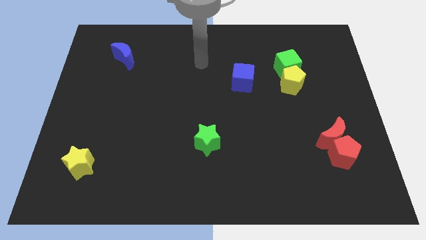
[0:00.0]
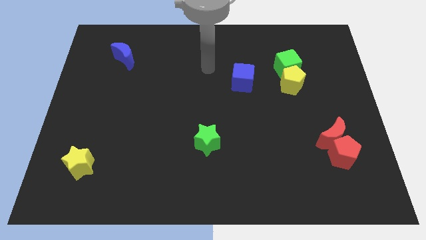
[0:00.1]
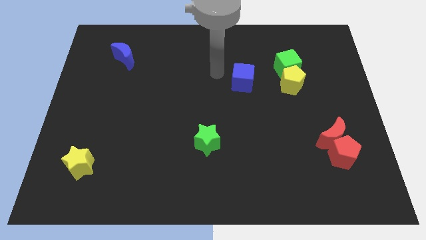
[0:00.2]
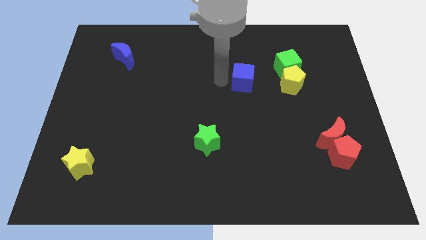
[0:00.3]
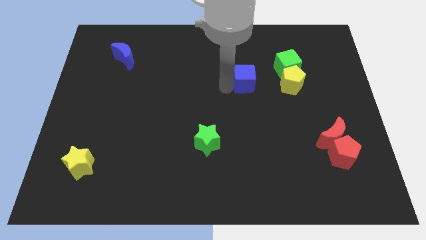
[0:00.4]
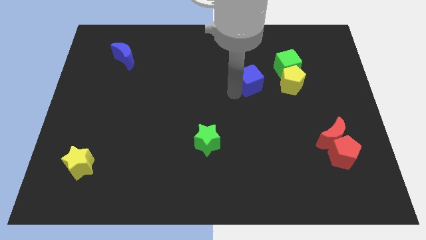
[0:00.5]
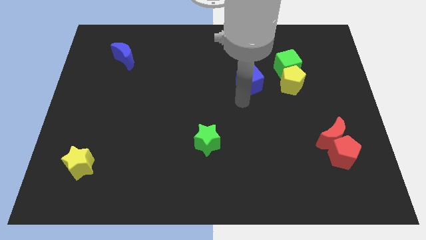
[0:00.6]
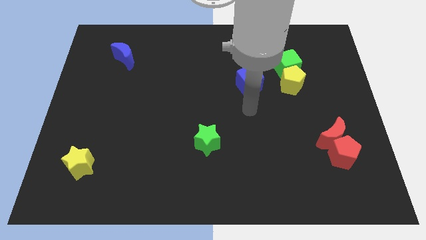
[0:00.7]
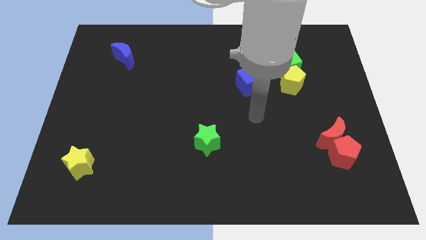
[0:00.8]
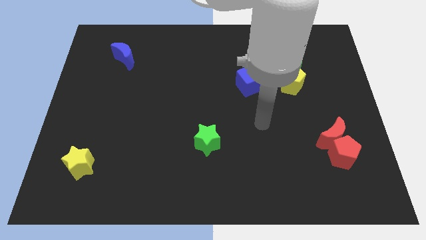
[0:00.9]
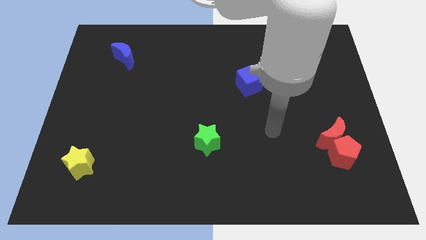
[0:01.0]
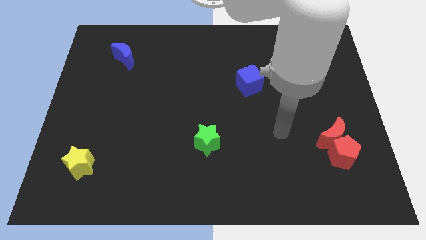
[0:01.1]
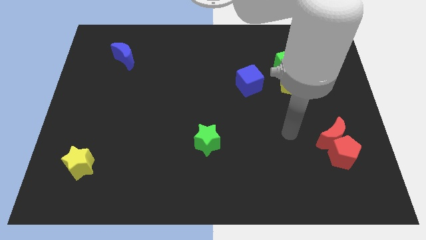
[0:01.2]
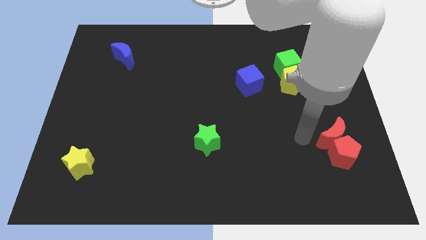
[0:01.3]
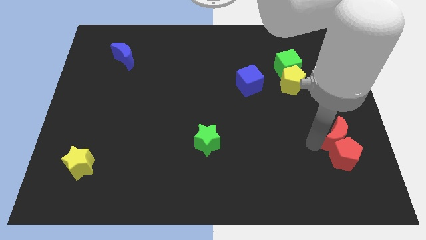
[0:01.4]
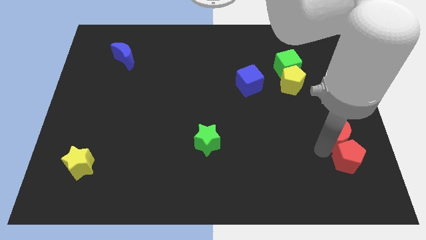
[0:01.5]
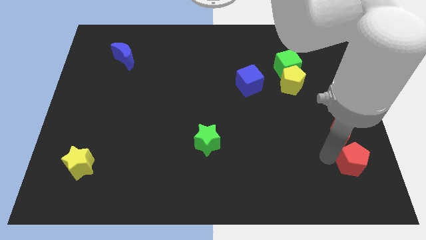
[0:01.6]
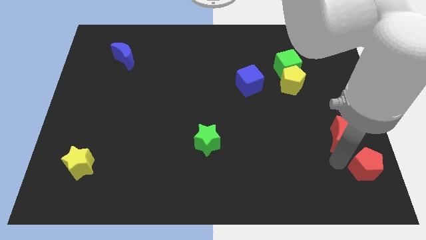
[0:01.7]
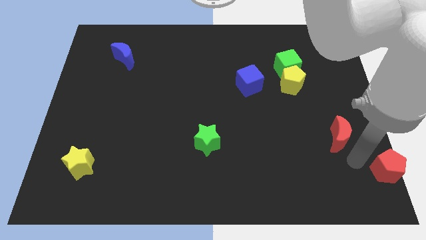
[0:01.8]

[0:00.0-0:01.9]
move the red moon away from the red pentagon

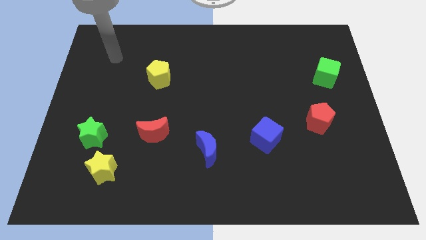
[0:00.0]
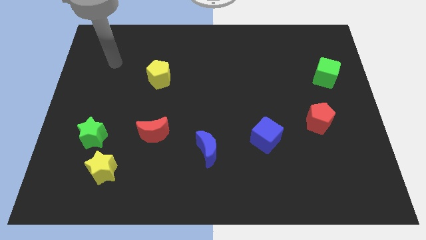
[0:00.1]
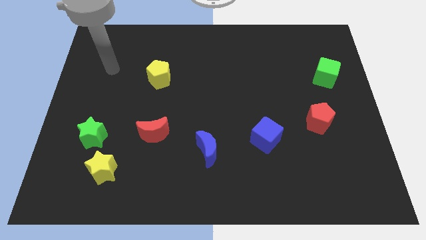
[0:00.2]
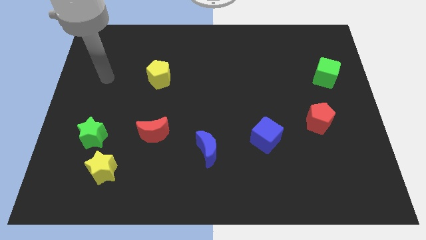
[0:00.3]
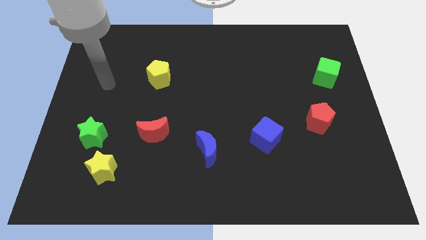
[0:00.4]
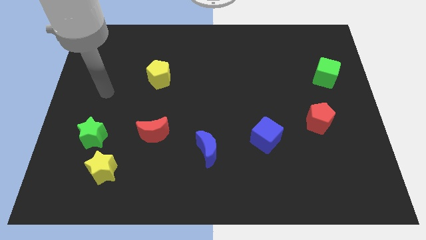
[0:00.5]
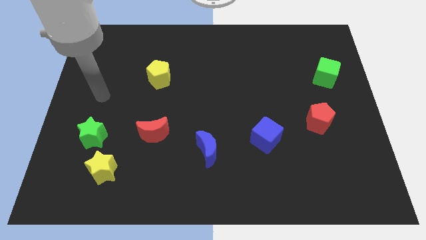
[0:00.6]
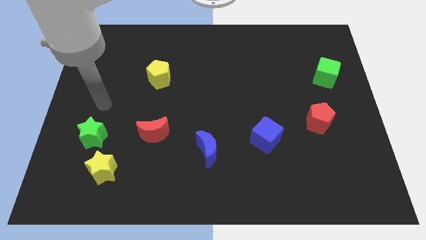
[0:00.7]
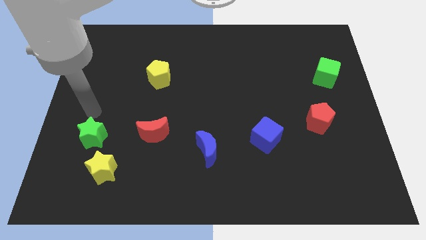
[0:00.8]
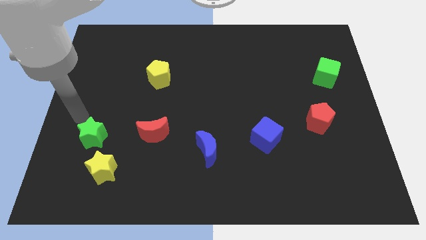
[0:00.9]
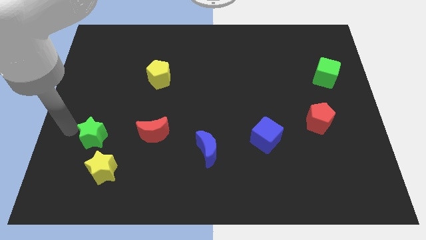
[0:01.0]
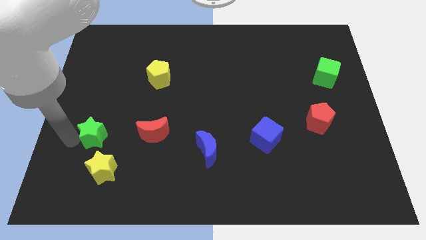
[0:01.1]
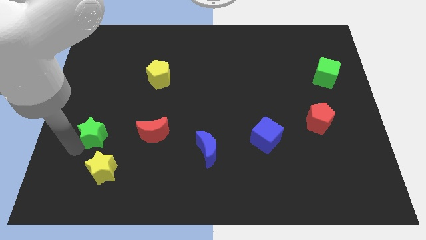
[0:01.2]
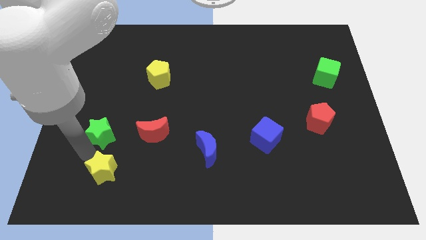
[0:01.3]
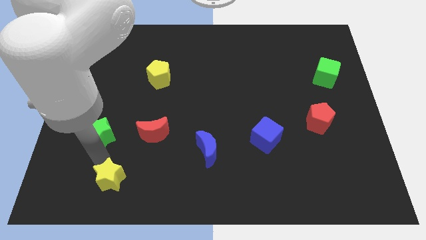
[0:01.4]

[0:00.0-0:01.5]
move the green star away from the yellow star

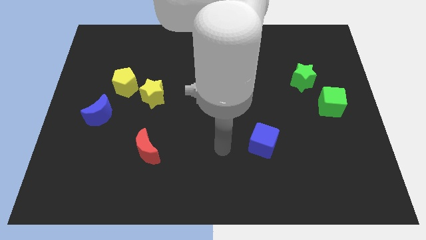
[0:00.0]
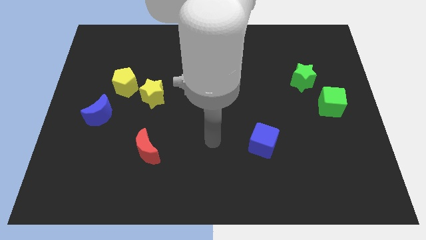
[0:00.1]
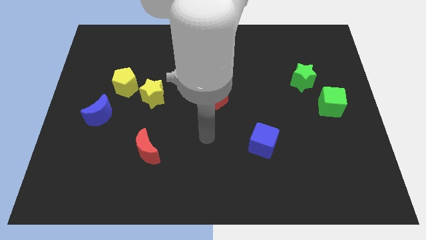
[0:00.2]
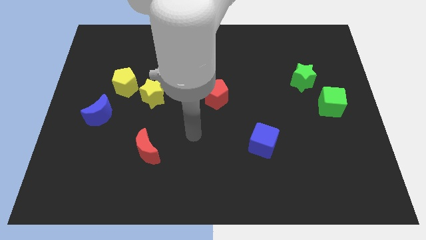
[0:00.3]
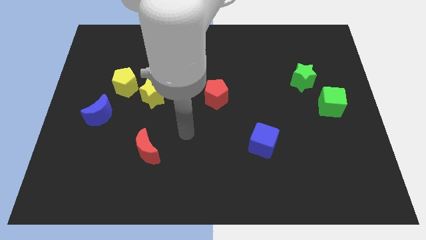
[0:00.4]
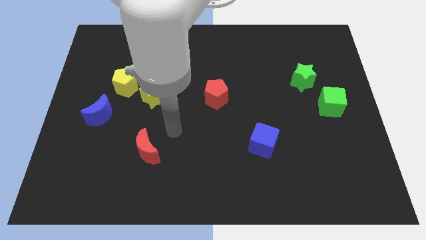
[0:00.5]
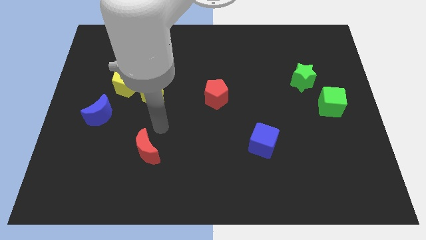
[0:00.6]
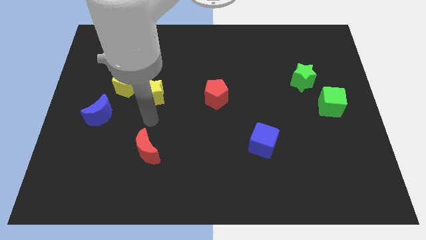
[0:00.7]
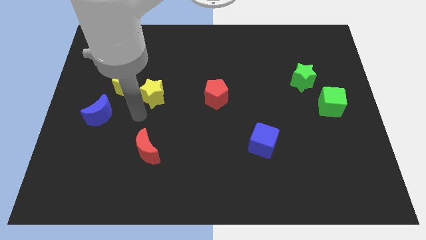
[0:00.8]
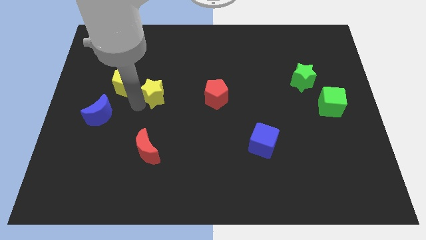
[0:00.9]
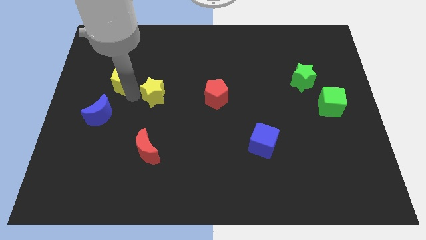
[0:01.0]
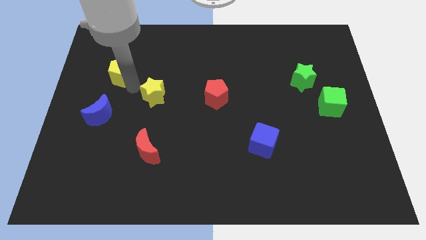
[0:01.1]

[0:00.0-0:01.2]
pull the yellow star apart from the yellow pentagon

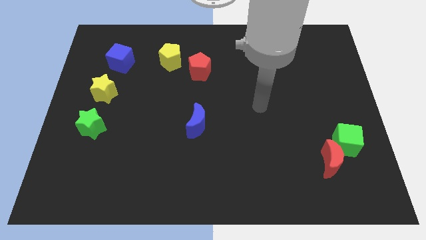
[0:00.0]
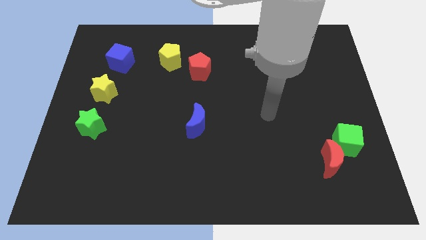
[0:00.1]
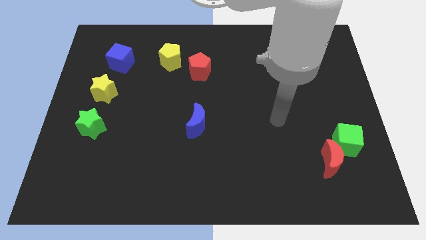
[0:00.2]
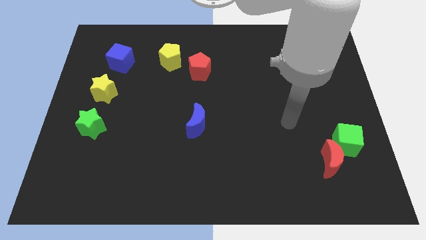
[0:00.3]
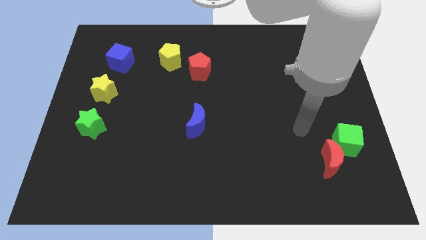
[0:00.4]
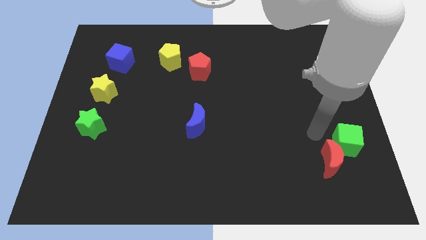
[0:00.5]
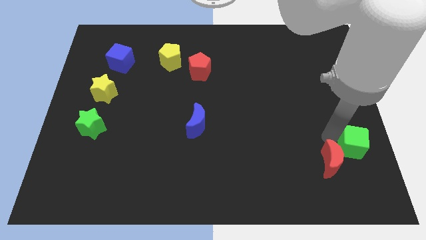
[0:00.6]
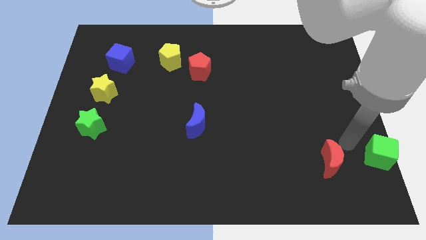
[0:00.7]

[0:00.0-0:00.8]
separate the red moon from the green cube

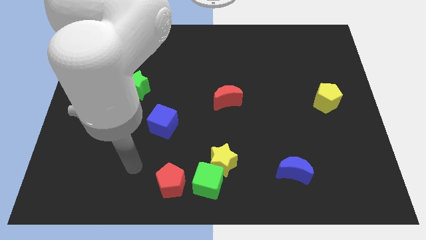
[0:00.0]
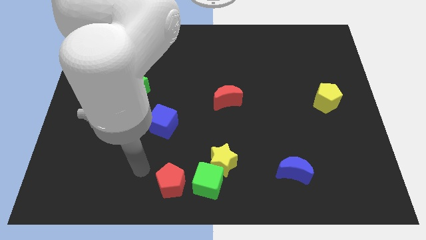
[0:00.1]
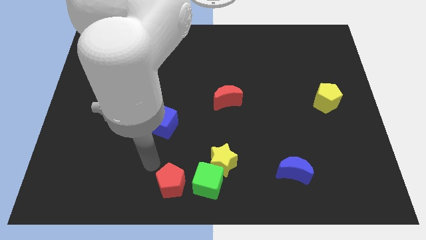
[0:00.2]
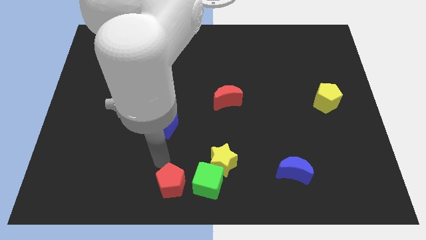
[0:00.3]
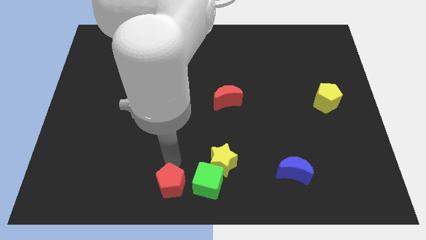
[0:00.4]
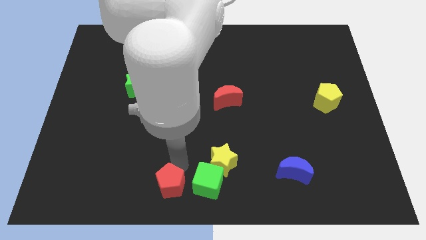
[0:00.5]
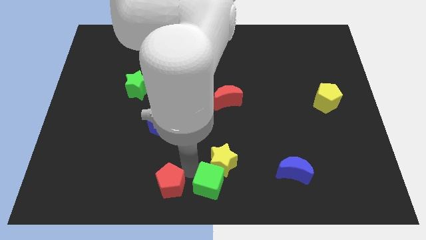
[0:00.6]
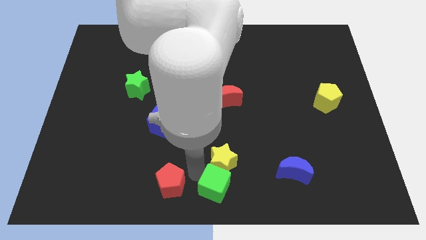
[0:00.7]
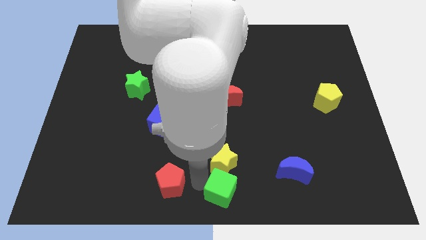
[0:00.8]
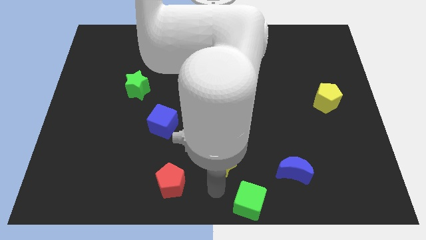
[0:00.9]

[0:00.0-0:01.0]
pull the yellow star apart from the green cube

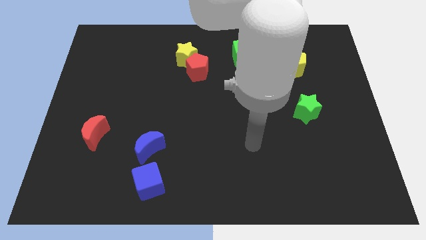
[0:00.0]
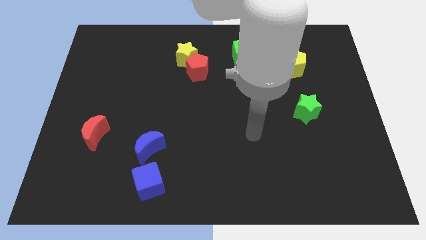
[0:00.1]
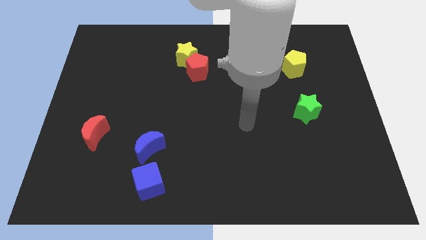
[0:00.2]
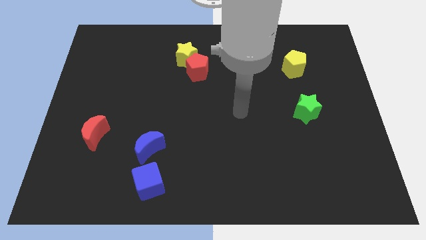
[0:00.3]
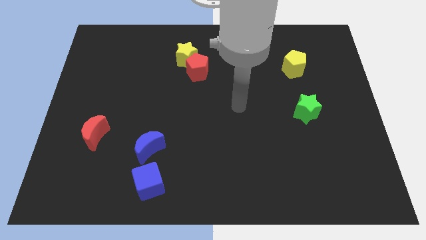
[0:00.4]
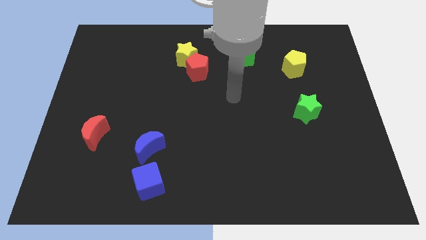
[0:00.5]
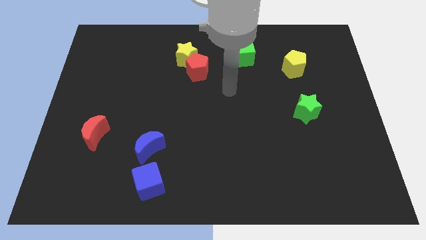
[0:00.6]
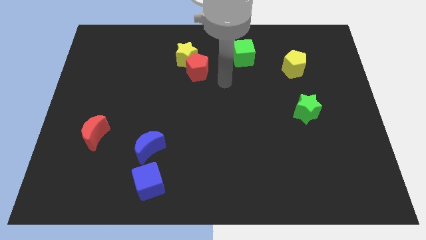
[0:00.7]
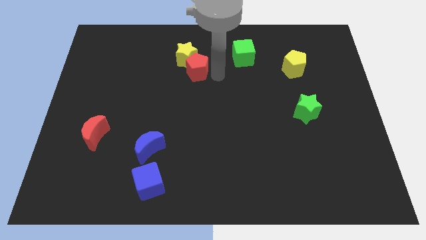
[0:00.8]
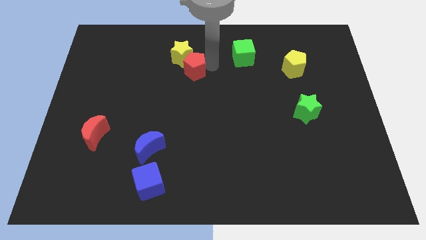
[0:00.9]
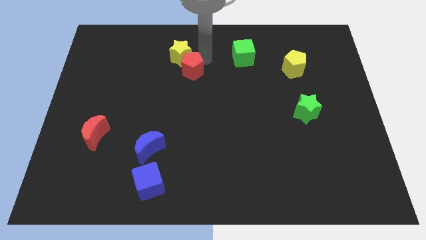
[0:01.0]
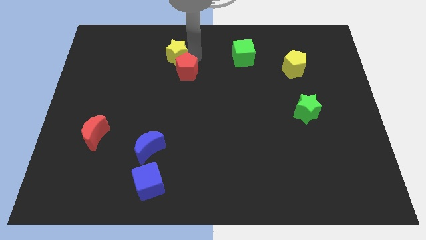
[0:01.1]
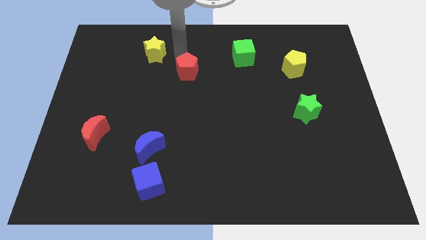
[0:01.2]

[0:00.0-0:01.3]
move the red pentagon away from the yellow star

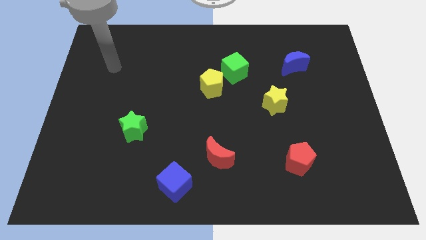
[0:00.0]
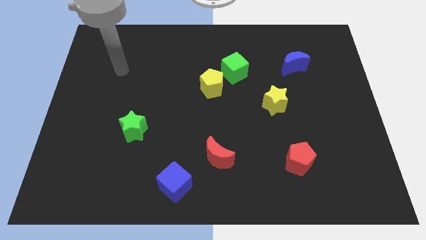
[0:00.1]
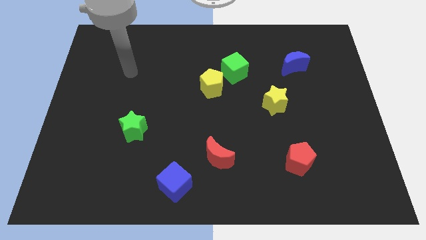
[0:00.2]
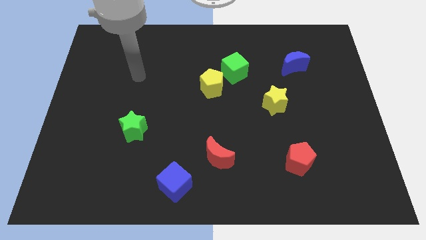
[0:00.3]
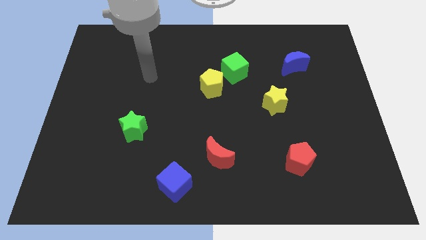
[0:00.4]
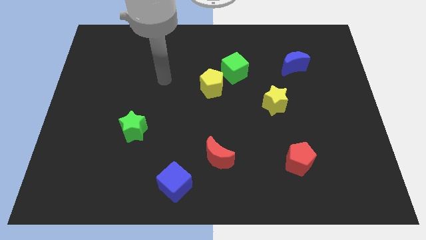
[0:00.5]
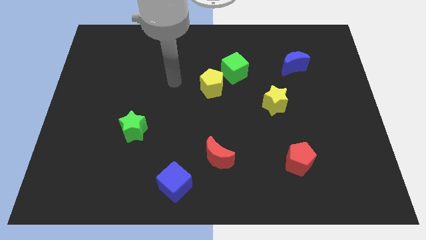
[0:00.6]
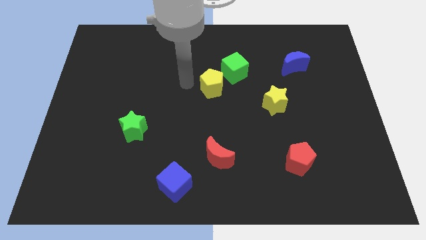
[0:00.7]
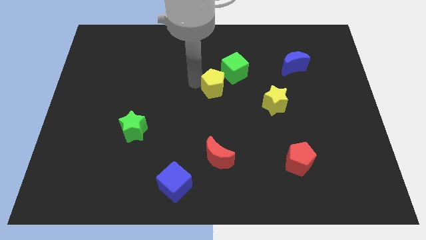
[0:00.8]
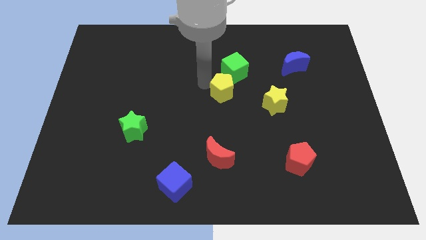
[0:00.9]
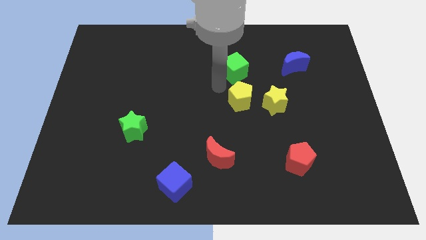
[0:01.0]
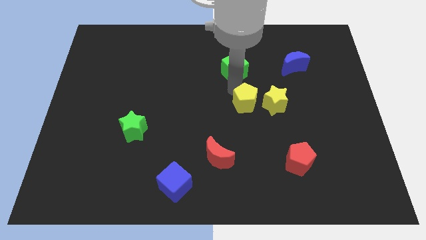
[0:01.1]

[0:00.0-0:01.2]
pull the green cube apart from the yellow pentagon

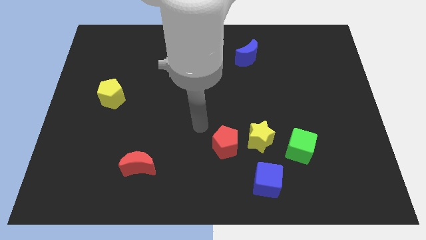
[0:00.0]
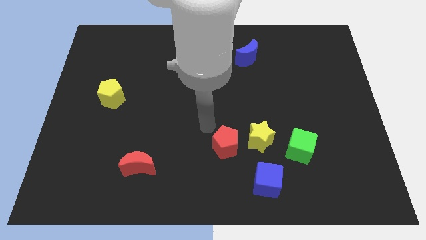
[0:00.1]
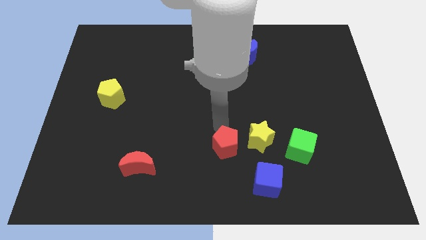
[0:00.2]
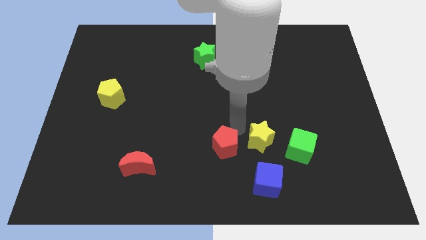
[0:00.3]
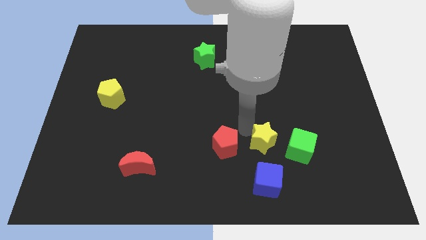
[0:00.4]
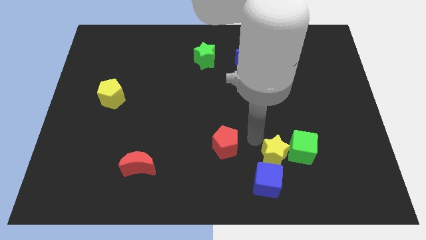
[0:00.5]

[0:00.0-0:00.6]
pull the red pentagon apart from the yellow star
